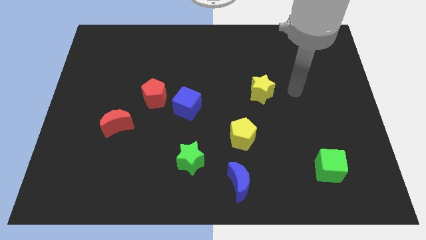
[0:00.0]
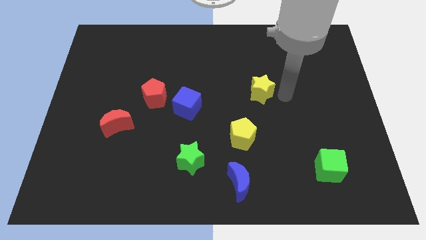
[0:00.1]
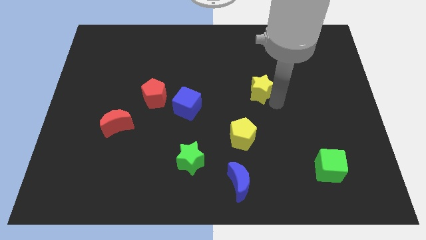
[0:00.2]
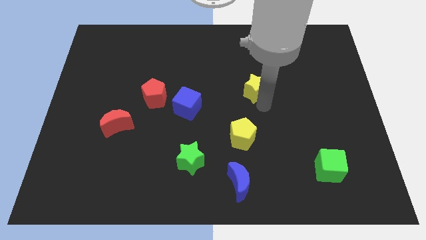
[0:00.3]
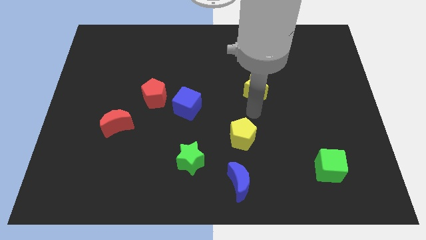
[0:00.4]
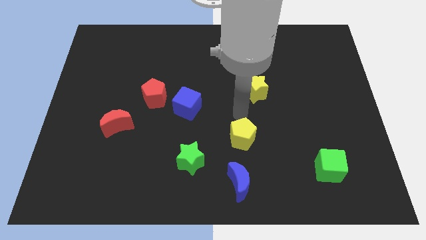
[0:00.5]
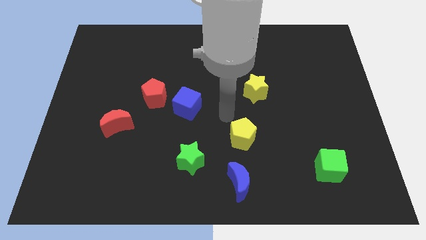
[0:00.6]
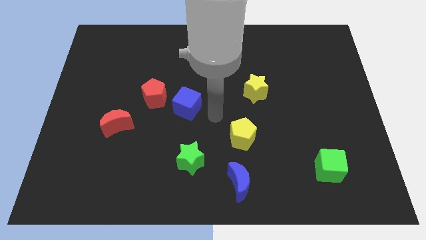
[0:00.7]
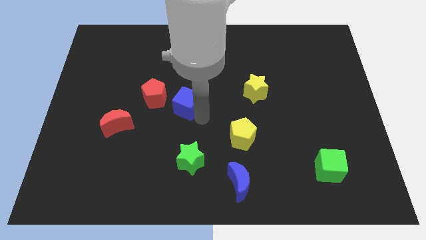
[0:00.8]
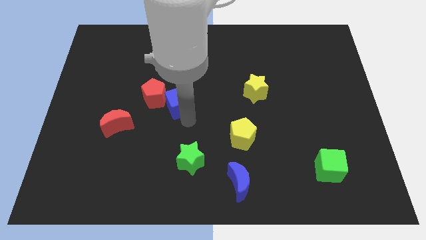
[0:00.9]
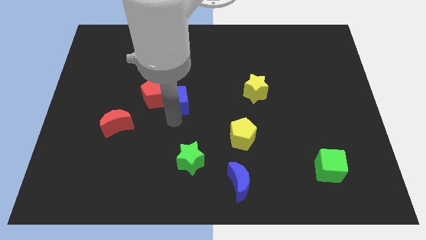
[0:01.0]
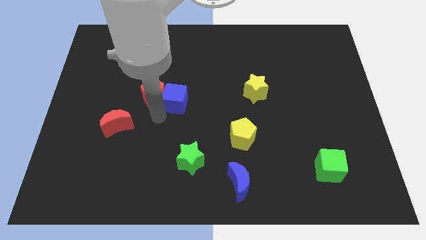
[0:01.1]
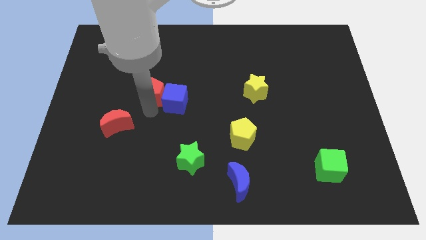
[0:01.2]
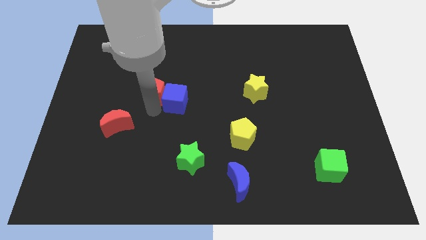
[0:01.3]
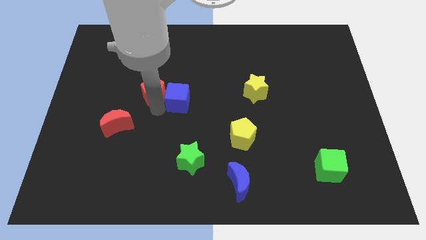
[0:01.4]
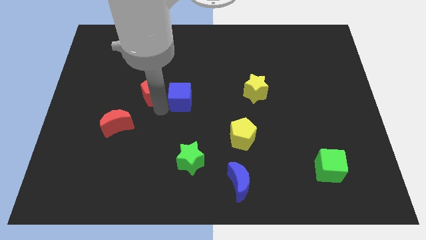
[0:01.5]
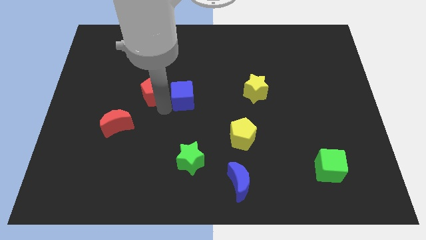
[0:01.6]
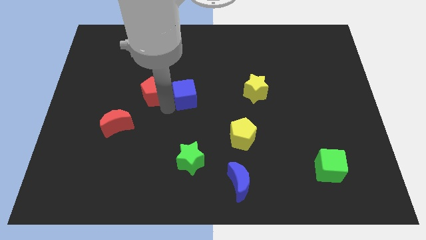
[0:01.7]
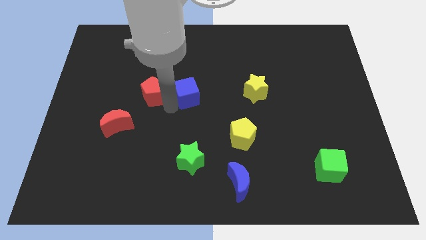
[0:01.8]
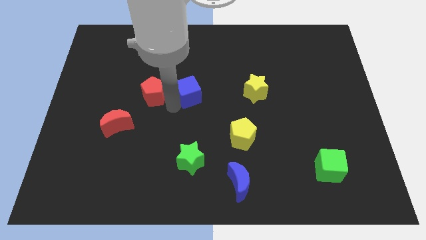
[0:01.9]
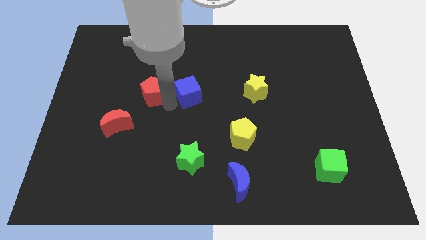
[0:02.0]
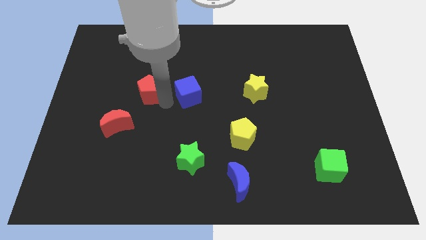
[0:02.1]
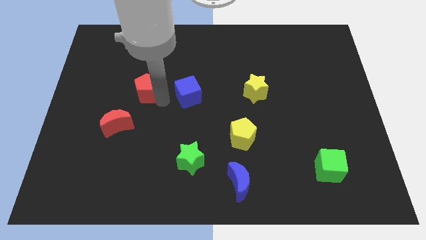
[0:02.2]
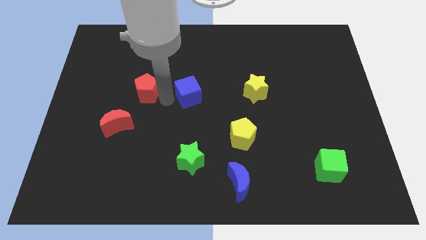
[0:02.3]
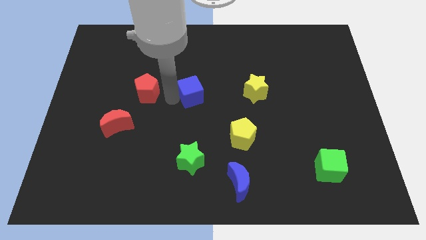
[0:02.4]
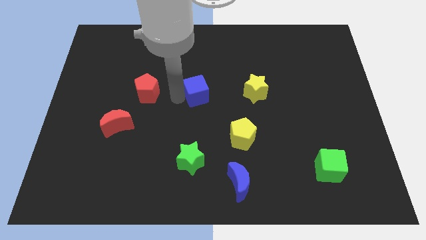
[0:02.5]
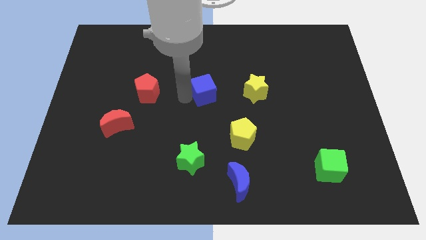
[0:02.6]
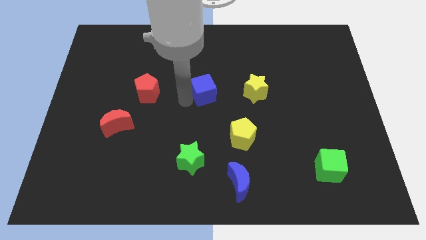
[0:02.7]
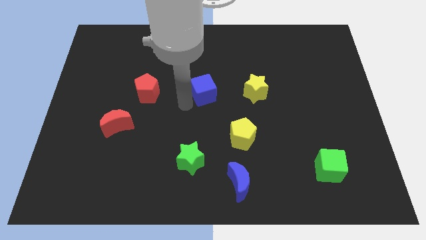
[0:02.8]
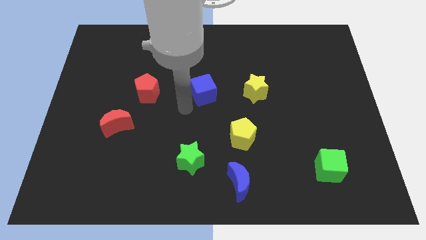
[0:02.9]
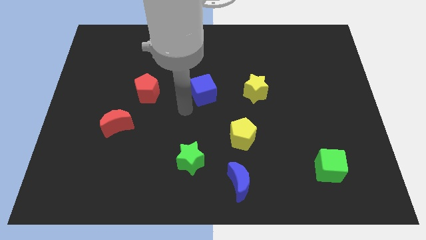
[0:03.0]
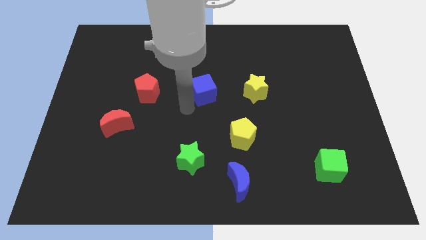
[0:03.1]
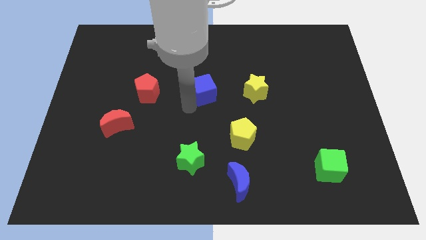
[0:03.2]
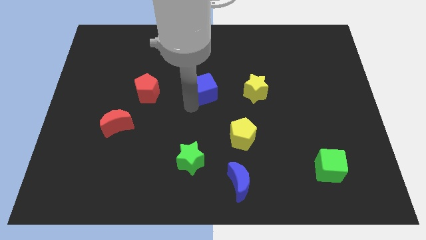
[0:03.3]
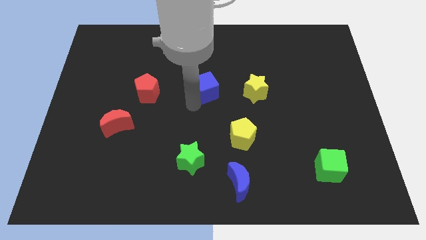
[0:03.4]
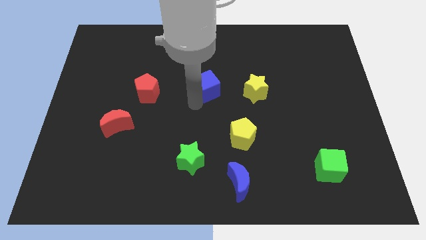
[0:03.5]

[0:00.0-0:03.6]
slide the blue cube up and right diagonally somewhat

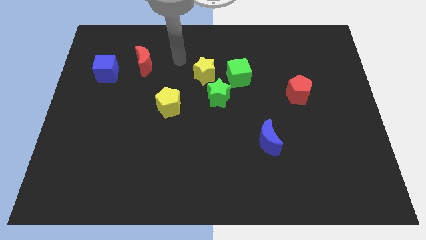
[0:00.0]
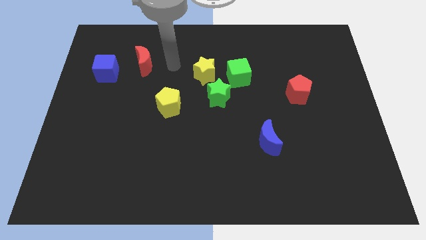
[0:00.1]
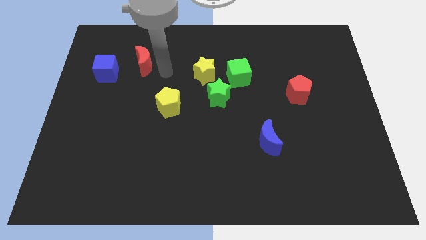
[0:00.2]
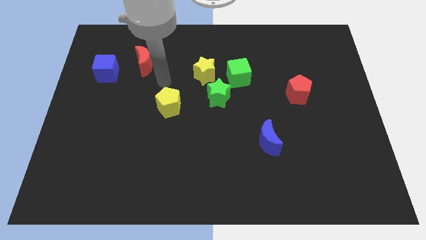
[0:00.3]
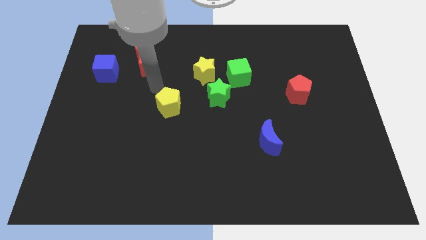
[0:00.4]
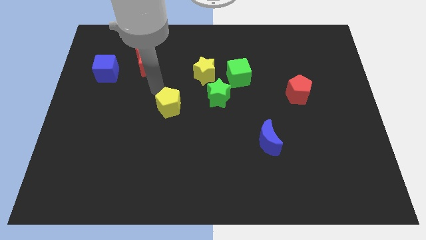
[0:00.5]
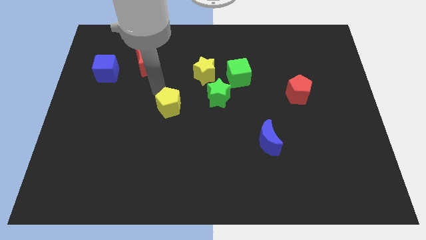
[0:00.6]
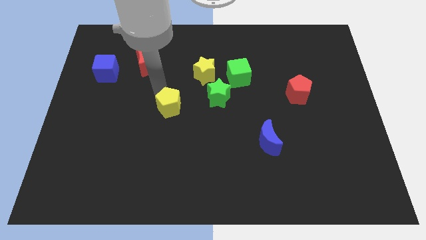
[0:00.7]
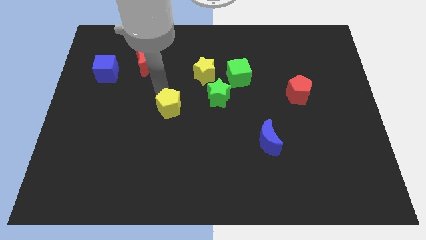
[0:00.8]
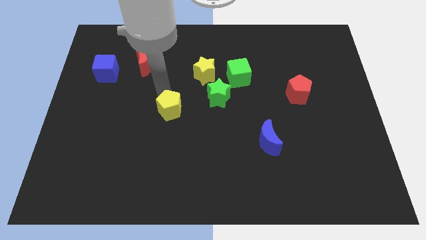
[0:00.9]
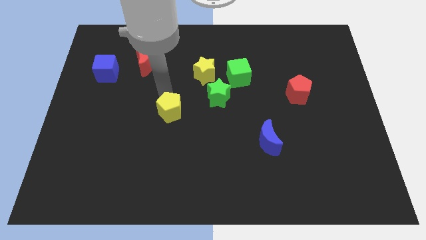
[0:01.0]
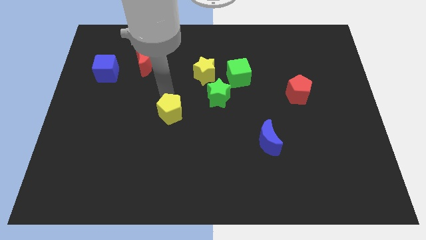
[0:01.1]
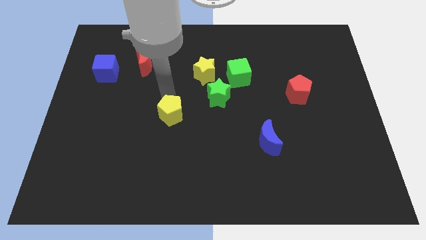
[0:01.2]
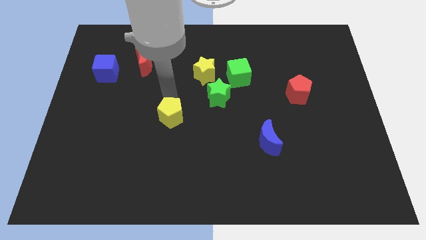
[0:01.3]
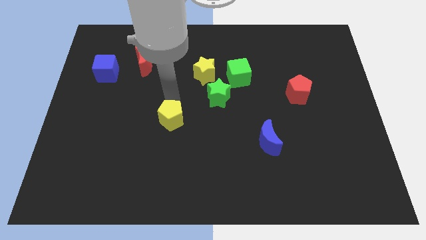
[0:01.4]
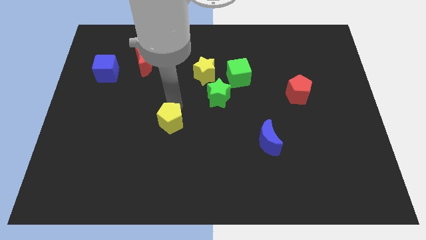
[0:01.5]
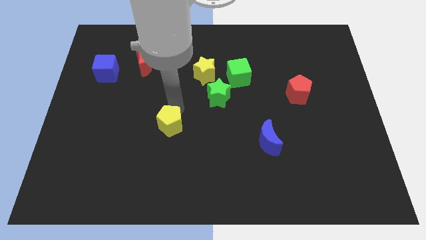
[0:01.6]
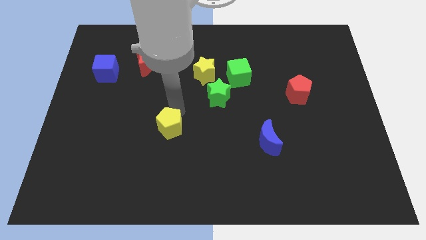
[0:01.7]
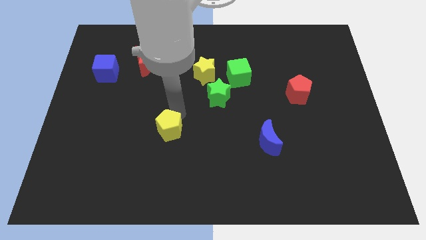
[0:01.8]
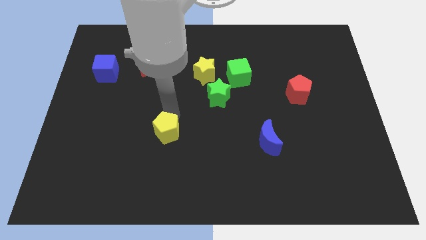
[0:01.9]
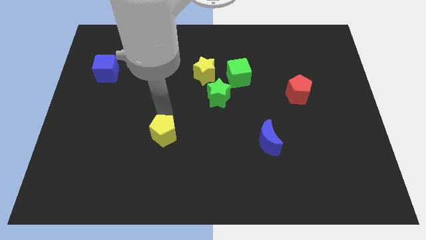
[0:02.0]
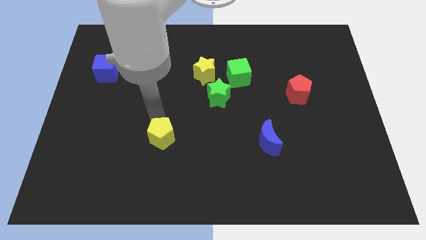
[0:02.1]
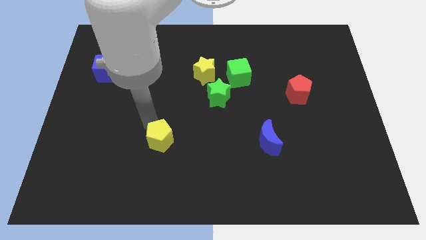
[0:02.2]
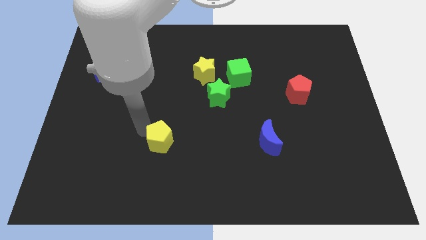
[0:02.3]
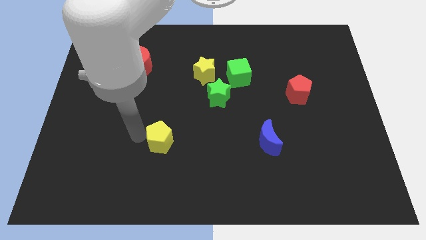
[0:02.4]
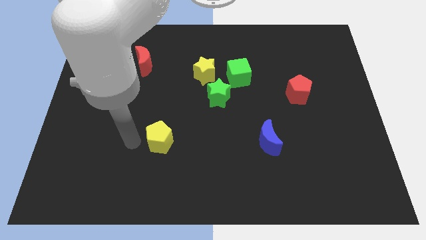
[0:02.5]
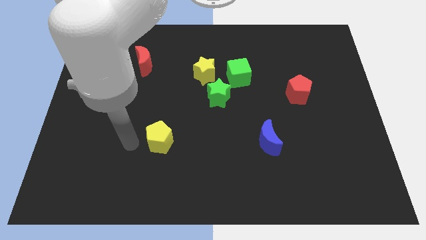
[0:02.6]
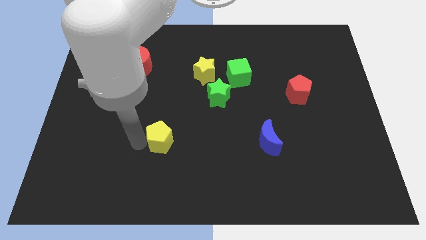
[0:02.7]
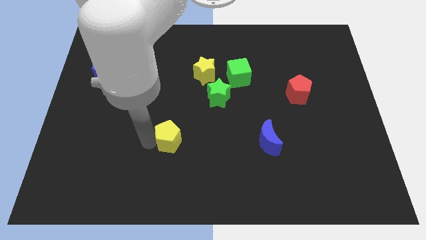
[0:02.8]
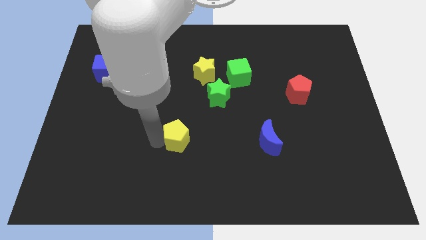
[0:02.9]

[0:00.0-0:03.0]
push the yellow pentagon diagonally downwards and to the right a little bit

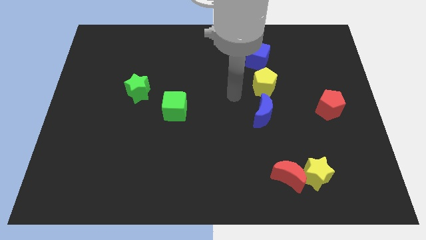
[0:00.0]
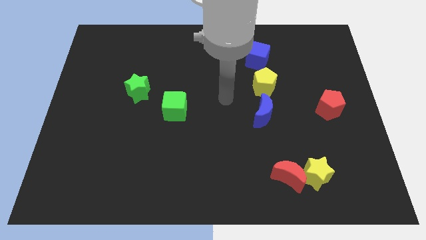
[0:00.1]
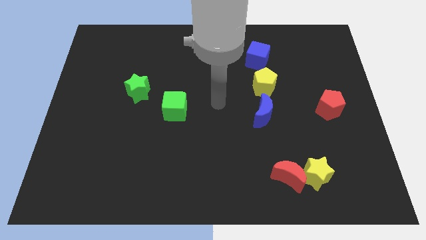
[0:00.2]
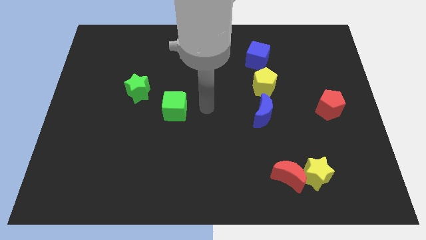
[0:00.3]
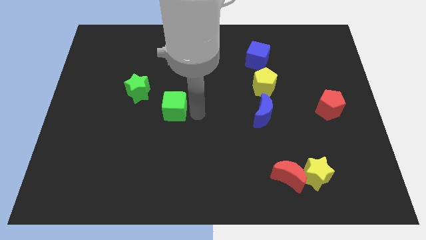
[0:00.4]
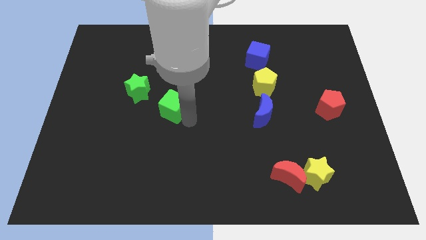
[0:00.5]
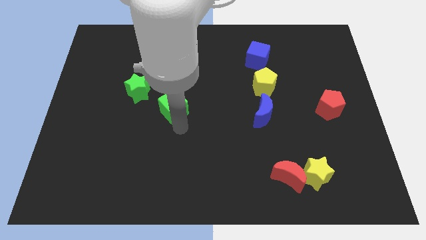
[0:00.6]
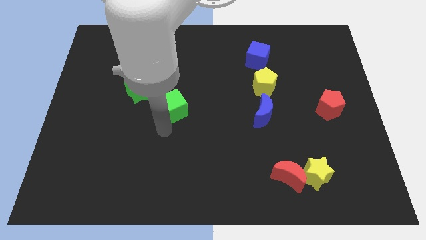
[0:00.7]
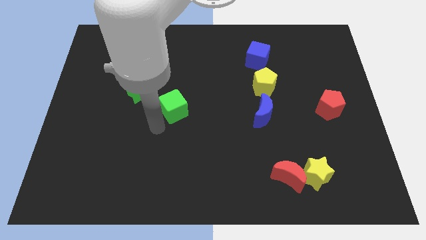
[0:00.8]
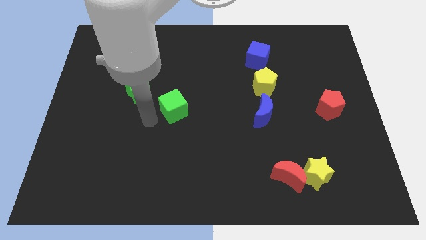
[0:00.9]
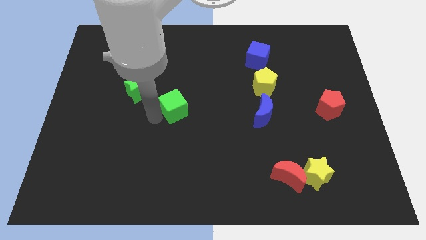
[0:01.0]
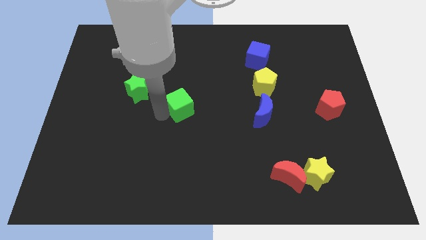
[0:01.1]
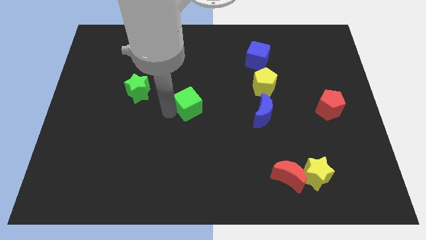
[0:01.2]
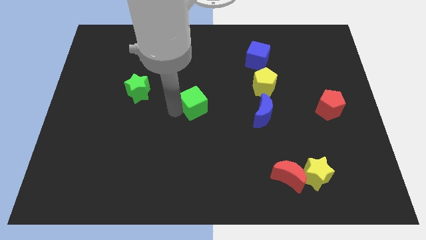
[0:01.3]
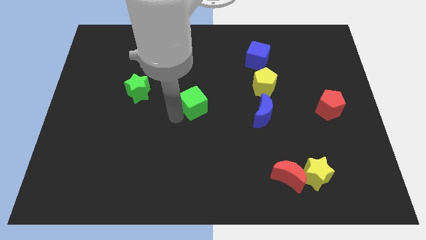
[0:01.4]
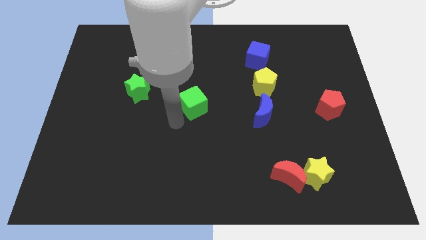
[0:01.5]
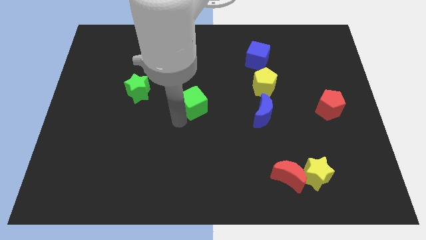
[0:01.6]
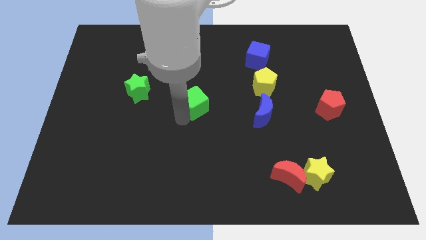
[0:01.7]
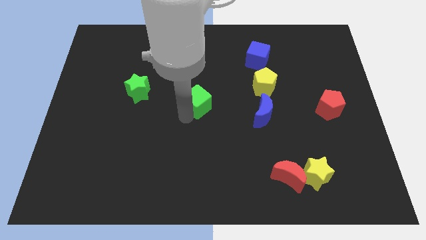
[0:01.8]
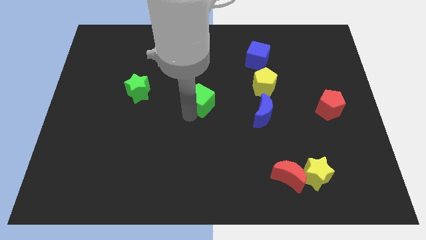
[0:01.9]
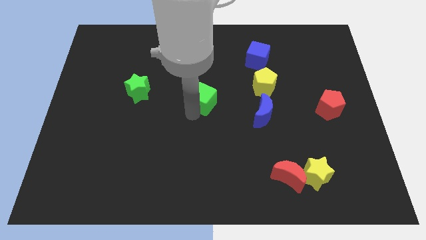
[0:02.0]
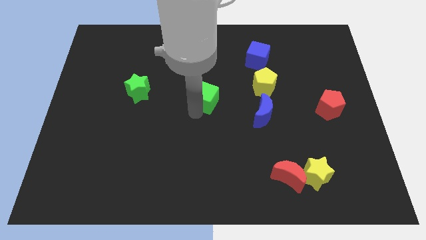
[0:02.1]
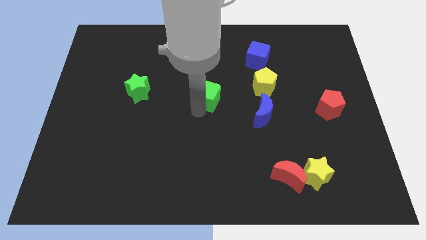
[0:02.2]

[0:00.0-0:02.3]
move the green cube a little bit upwards and then right
